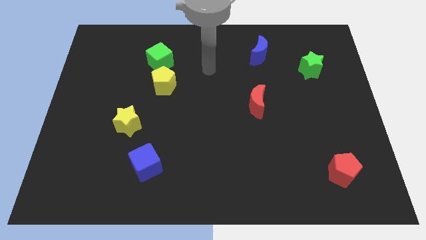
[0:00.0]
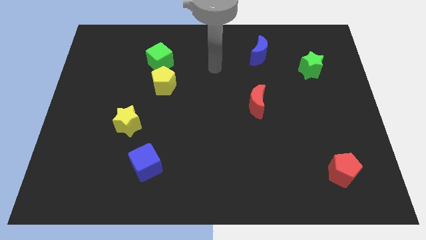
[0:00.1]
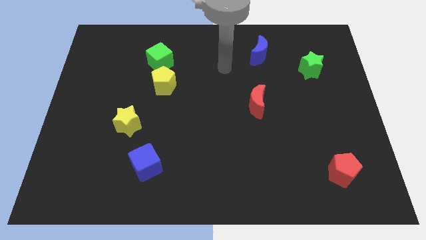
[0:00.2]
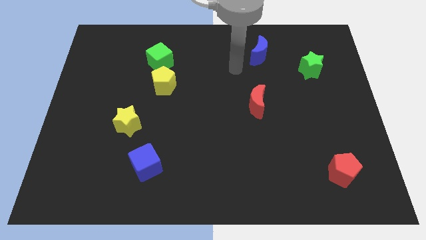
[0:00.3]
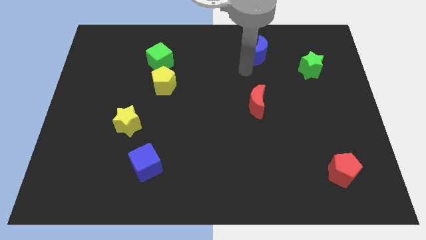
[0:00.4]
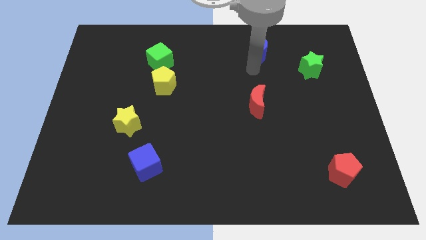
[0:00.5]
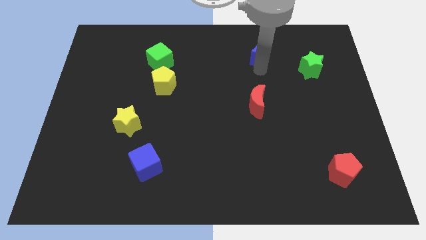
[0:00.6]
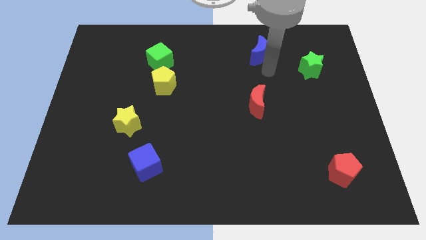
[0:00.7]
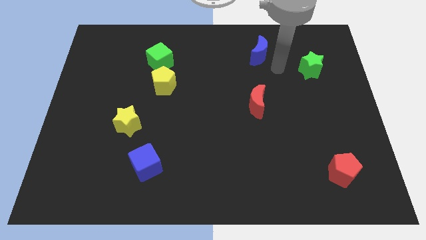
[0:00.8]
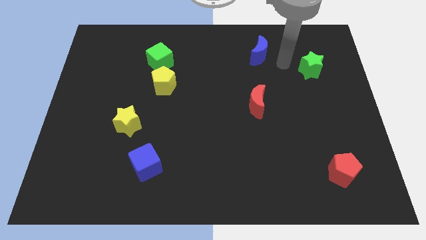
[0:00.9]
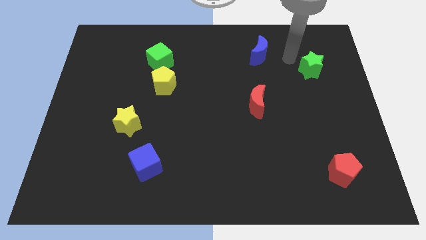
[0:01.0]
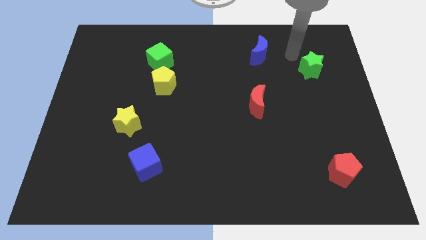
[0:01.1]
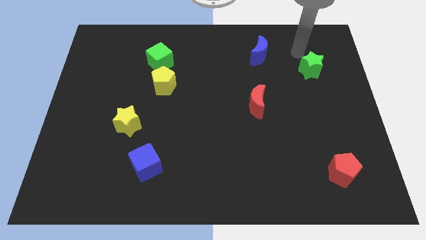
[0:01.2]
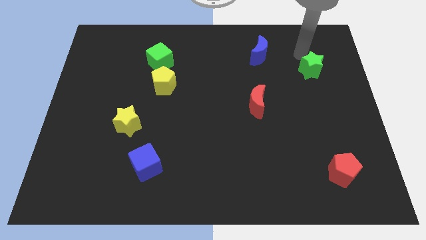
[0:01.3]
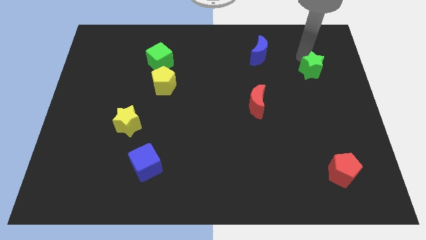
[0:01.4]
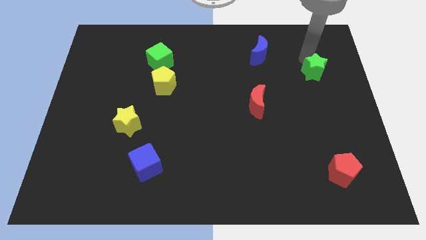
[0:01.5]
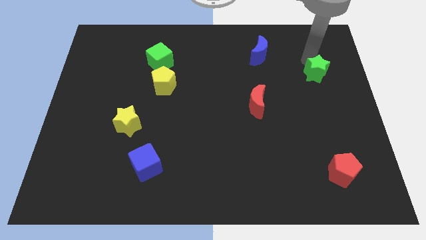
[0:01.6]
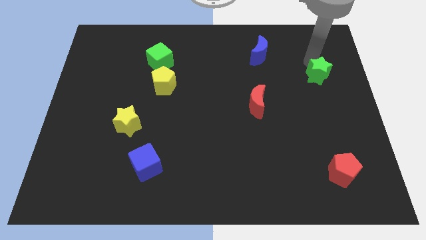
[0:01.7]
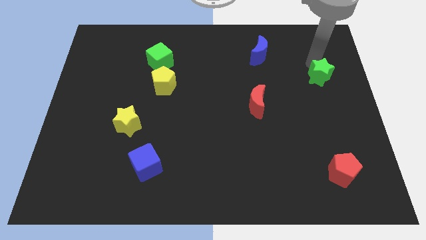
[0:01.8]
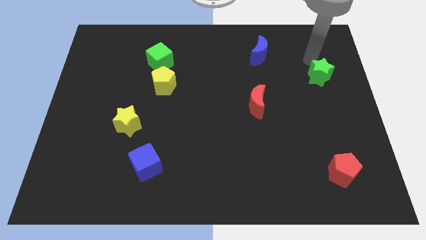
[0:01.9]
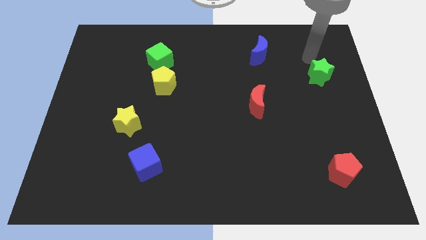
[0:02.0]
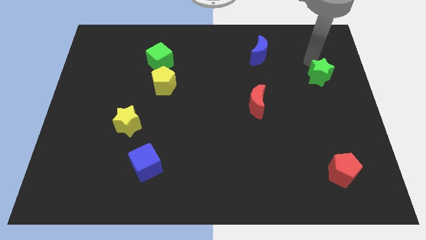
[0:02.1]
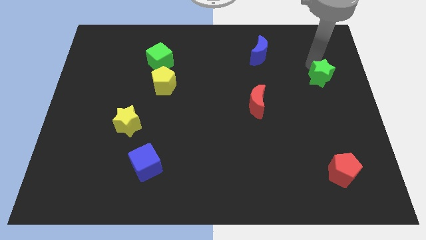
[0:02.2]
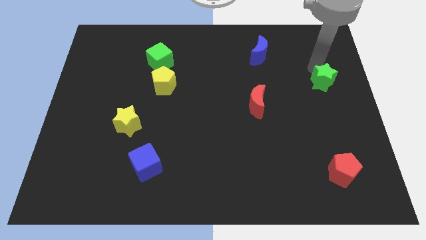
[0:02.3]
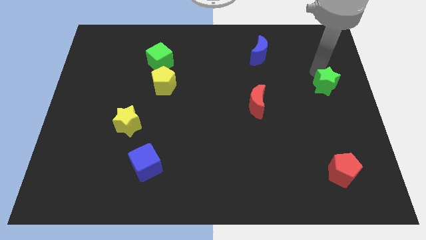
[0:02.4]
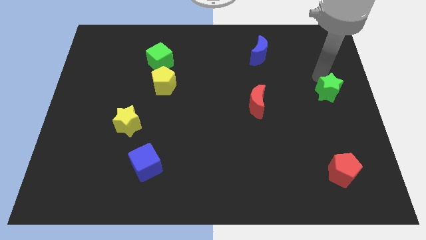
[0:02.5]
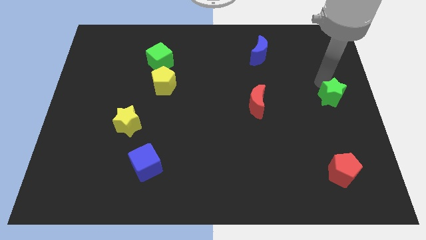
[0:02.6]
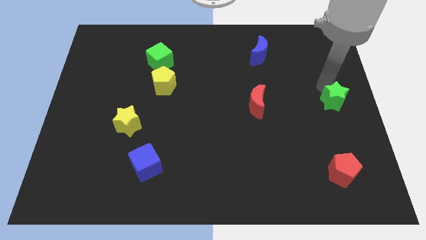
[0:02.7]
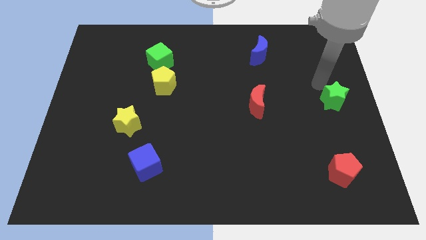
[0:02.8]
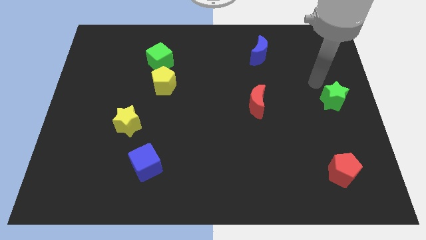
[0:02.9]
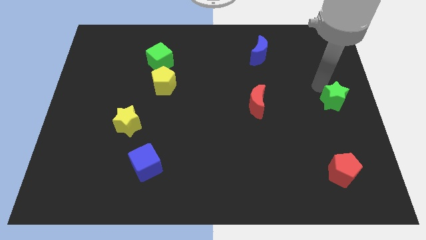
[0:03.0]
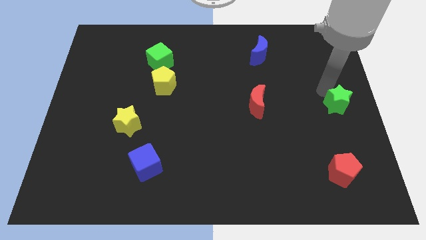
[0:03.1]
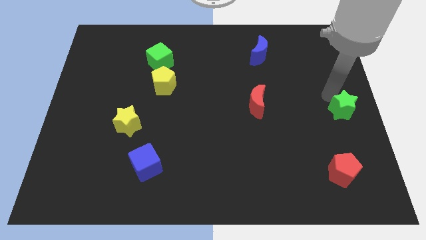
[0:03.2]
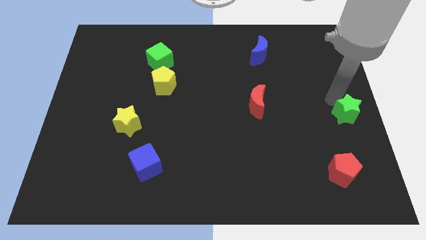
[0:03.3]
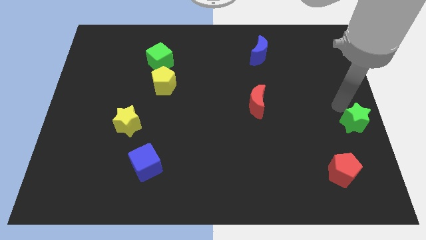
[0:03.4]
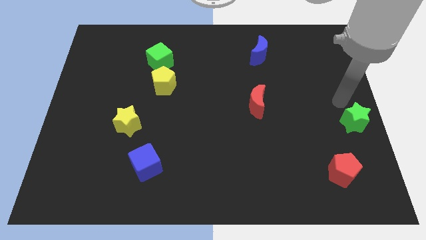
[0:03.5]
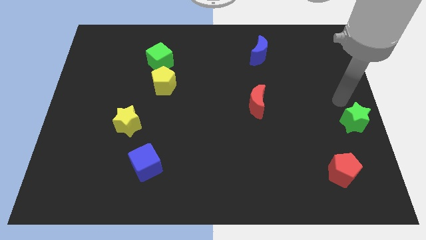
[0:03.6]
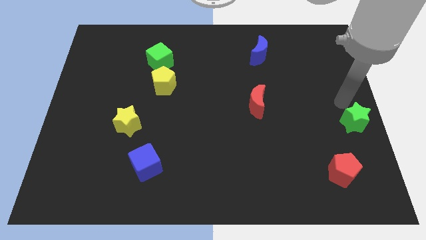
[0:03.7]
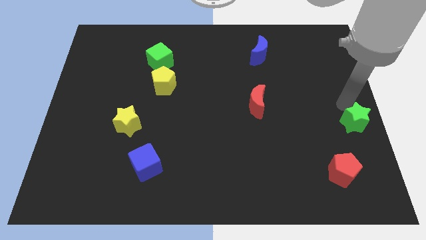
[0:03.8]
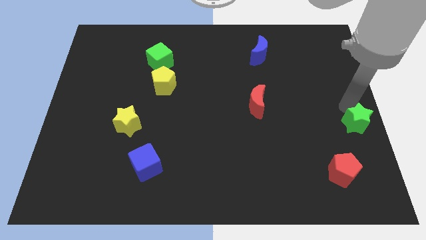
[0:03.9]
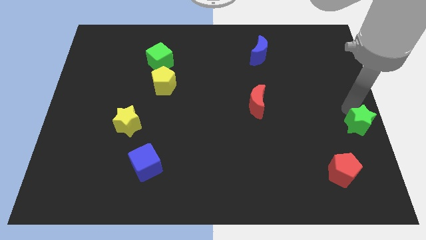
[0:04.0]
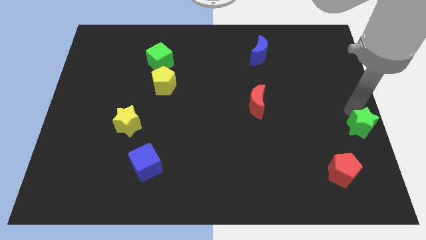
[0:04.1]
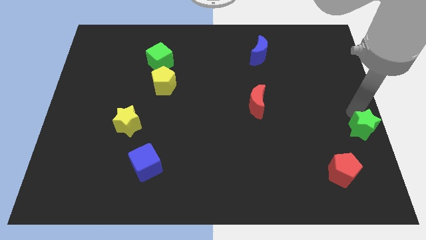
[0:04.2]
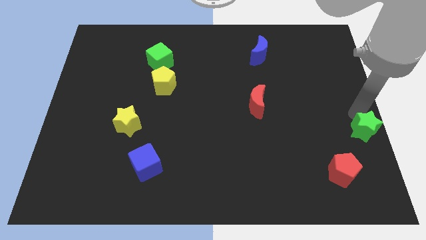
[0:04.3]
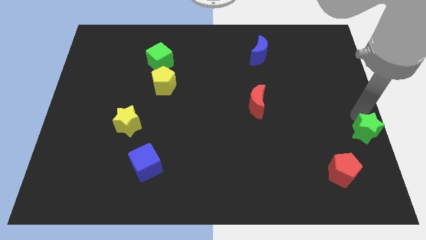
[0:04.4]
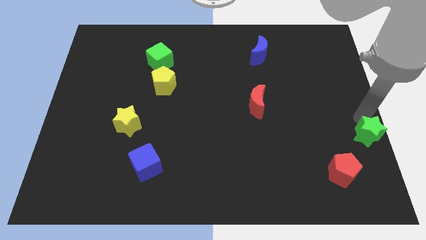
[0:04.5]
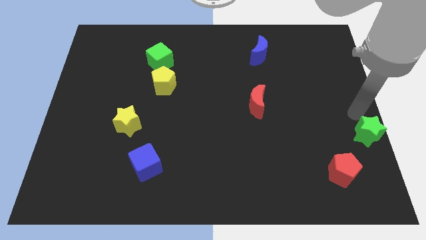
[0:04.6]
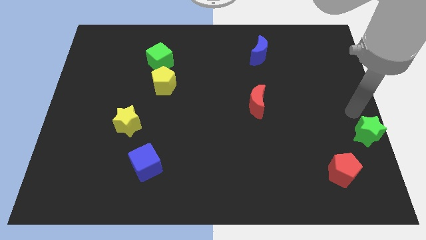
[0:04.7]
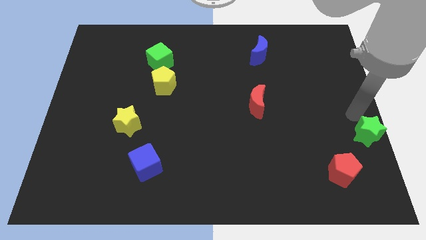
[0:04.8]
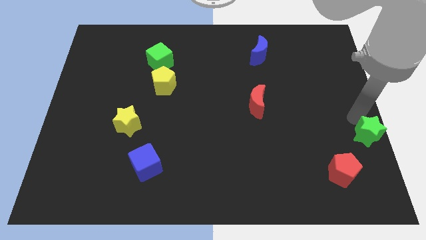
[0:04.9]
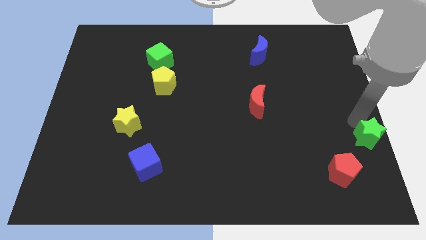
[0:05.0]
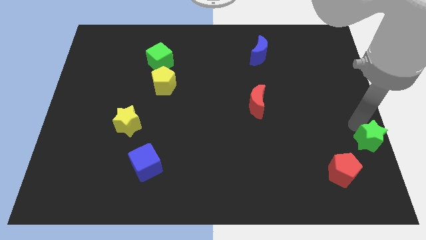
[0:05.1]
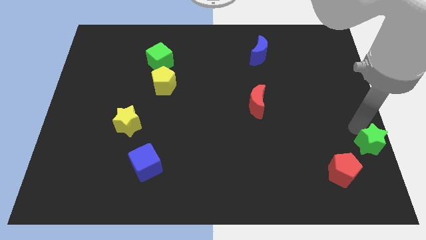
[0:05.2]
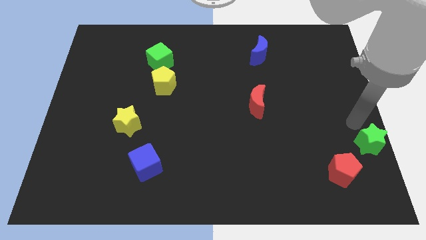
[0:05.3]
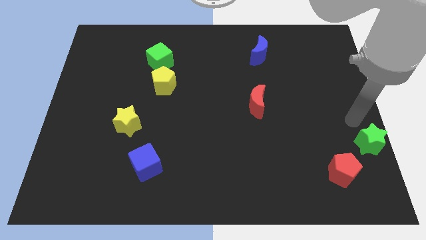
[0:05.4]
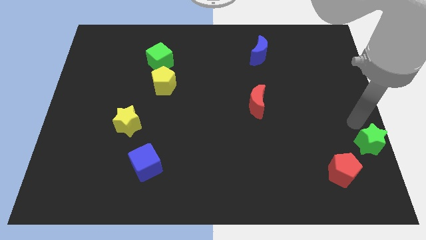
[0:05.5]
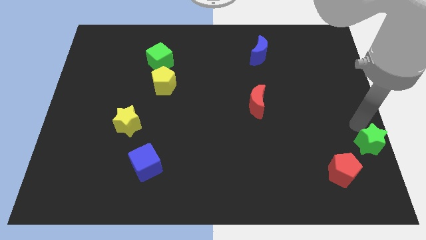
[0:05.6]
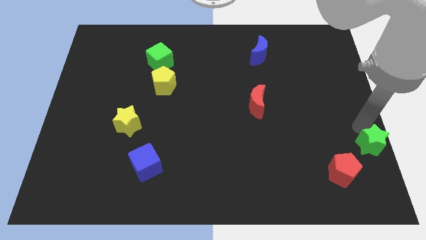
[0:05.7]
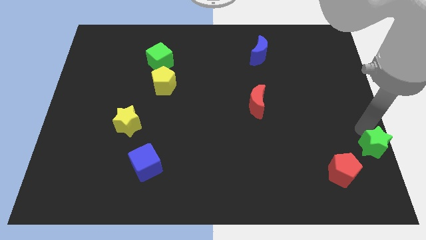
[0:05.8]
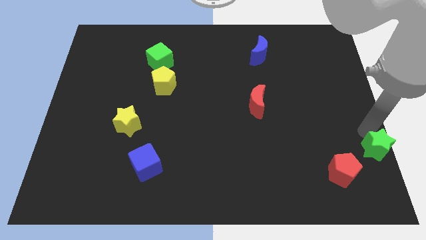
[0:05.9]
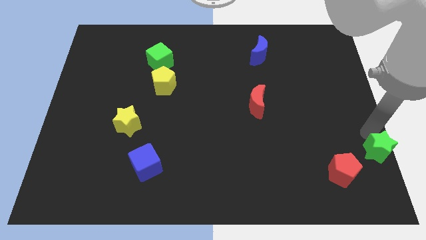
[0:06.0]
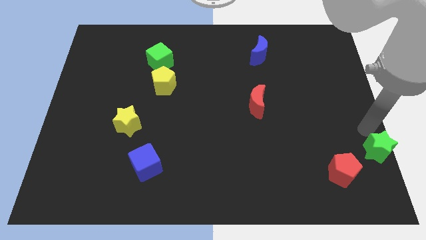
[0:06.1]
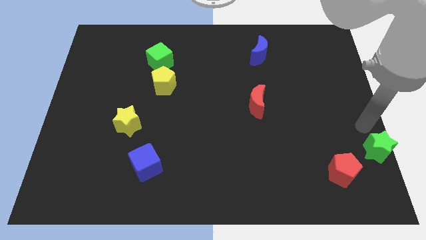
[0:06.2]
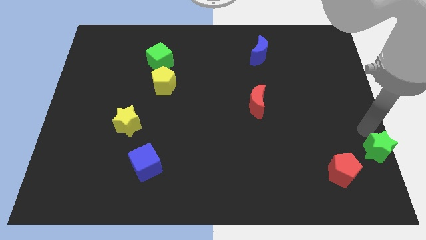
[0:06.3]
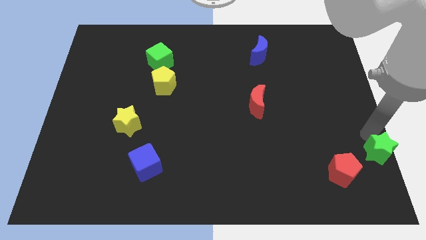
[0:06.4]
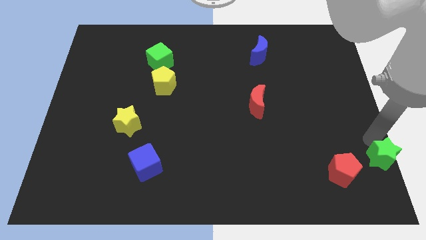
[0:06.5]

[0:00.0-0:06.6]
move the green star to the bottom right

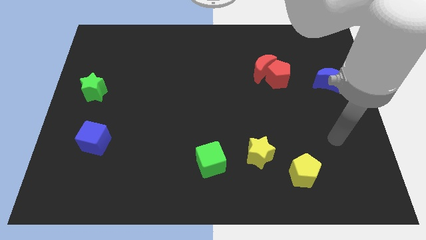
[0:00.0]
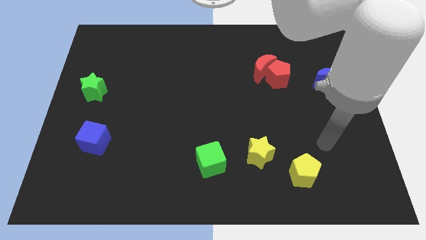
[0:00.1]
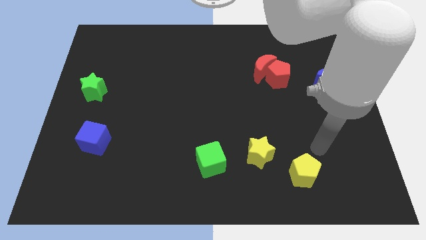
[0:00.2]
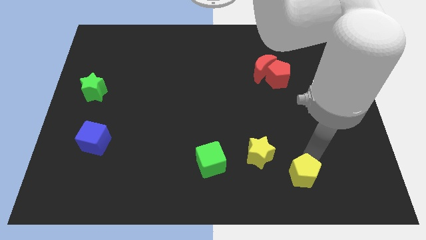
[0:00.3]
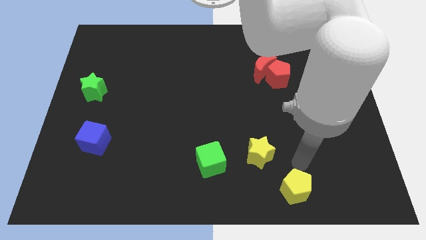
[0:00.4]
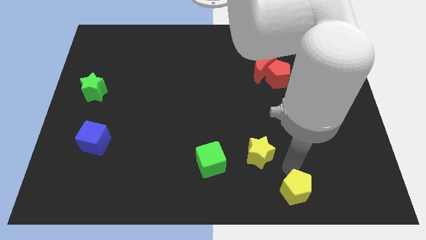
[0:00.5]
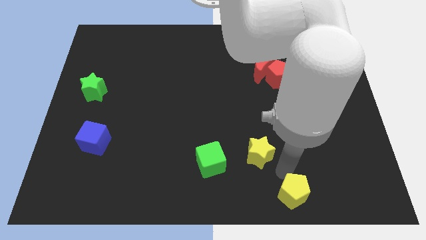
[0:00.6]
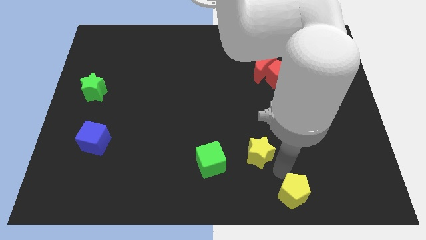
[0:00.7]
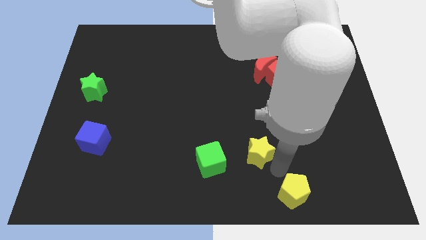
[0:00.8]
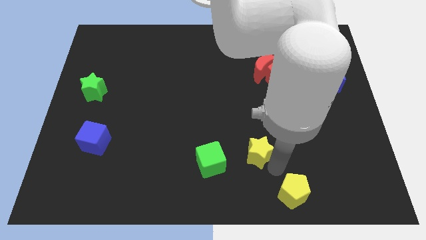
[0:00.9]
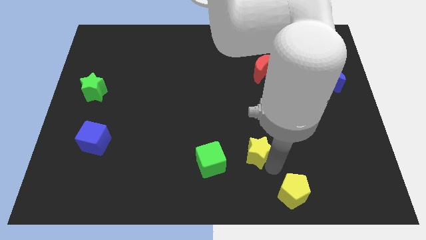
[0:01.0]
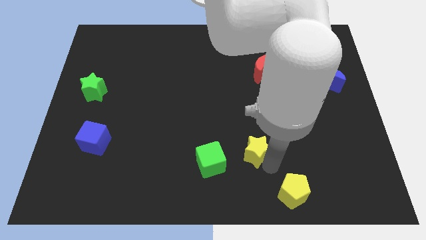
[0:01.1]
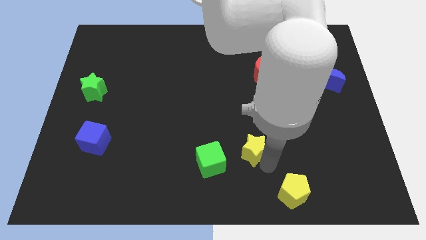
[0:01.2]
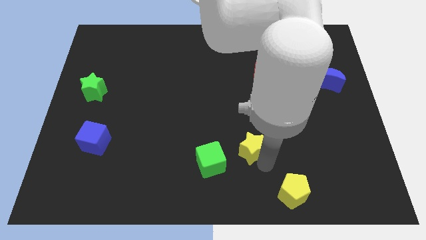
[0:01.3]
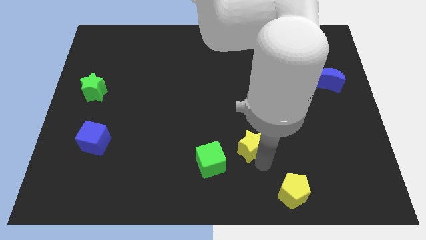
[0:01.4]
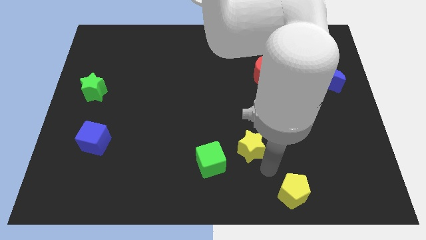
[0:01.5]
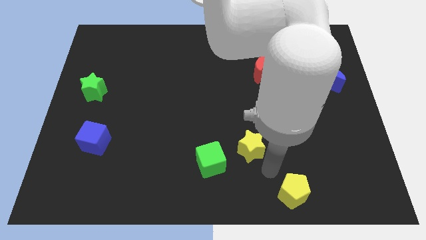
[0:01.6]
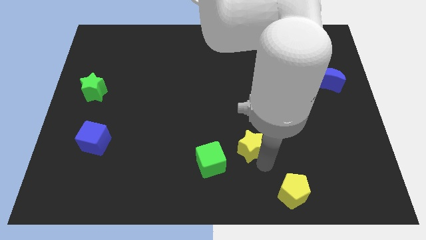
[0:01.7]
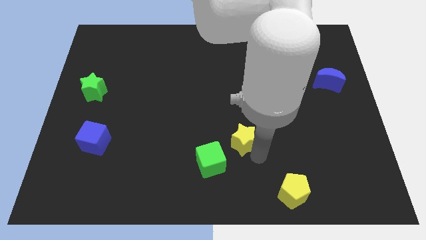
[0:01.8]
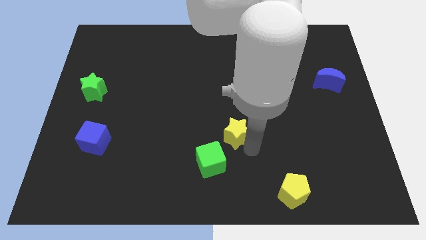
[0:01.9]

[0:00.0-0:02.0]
move the yellow star to the middle of the board
